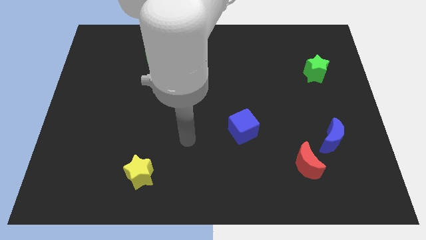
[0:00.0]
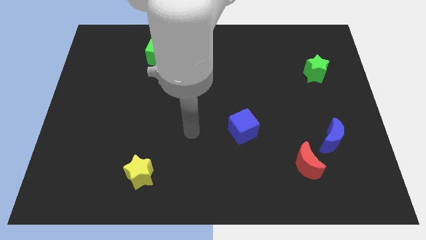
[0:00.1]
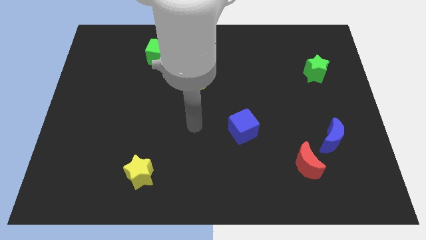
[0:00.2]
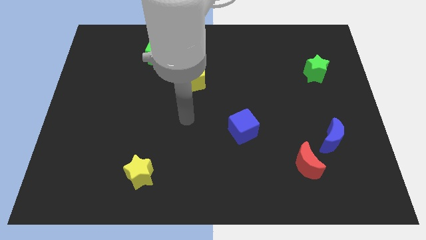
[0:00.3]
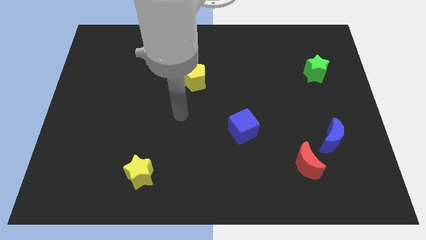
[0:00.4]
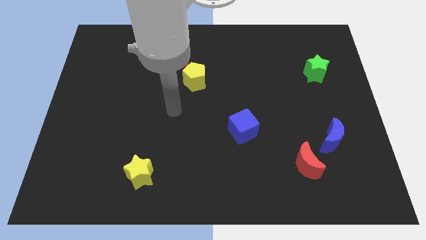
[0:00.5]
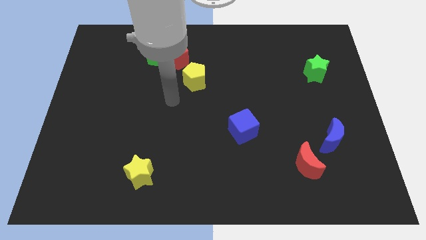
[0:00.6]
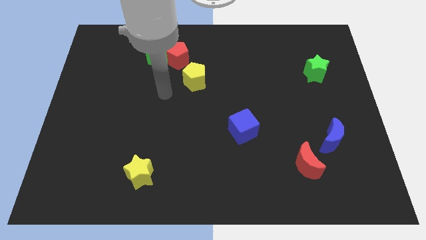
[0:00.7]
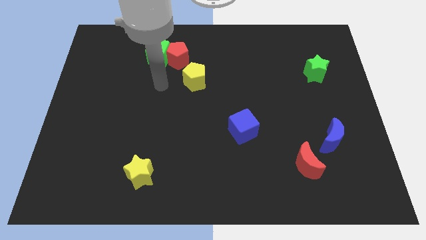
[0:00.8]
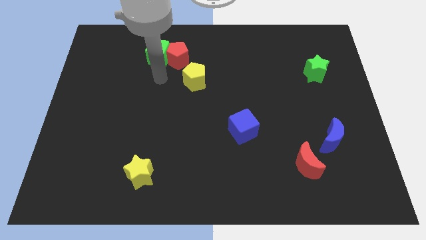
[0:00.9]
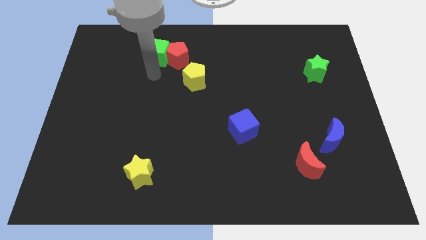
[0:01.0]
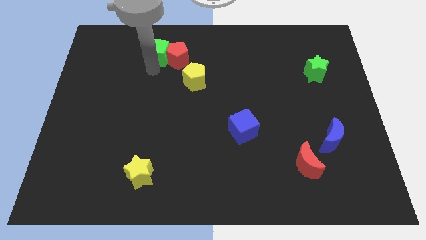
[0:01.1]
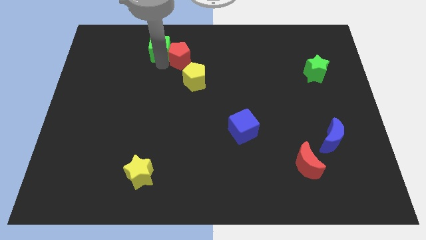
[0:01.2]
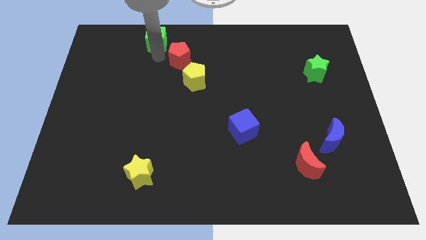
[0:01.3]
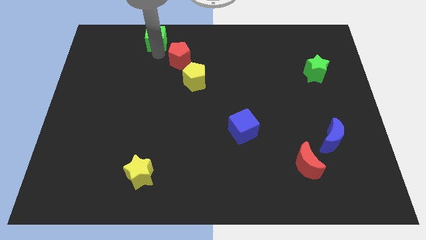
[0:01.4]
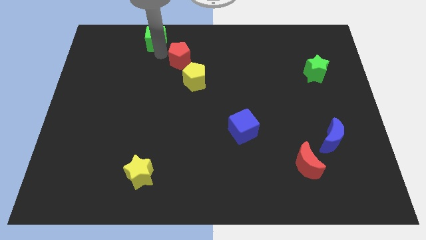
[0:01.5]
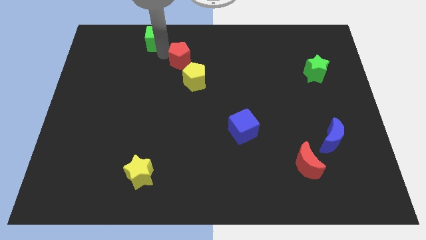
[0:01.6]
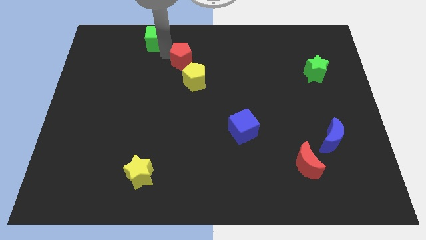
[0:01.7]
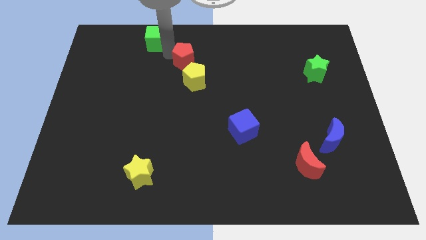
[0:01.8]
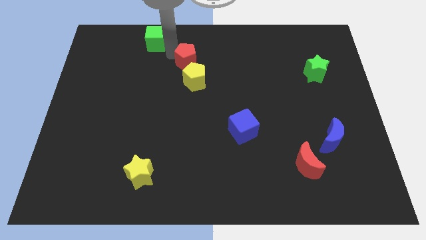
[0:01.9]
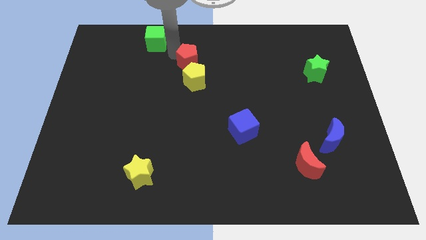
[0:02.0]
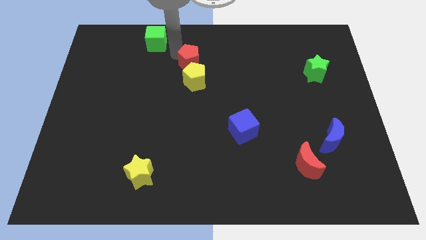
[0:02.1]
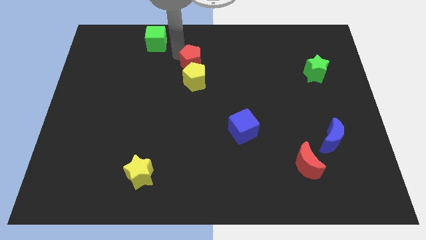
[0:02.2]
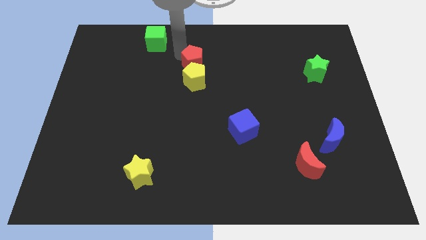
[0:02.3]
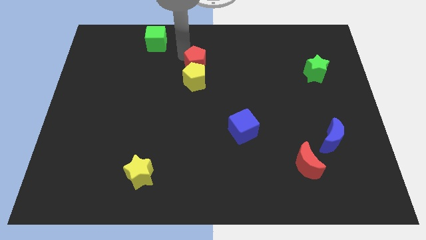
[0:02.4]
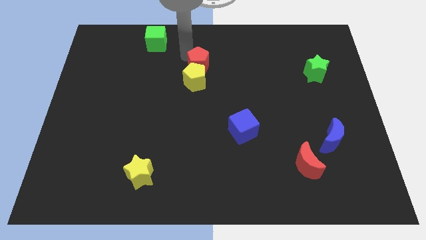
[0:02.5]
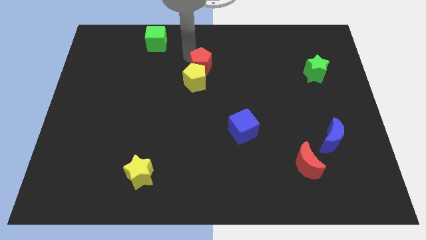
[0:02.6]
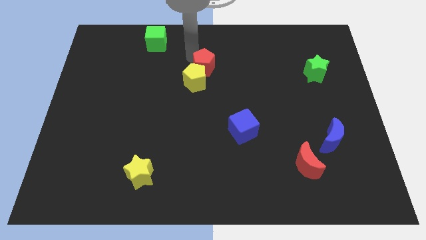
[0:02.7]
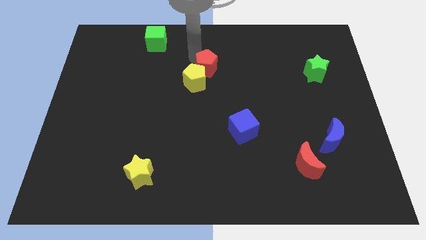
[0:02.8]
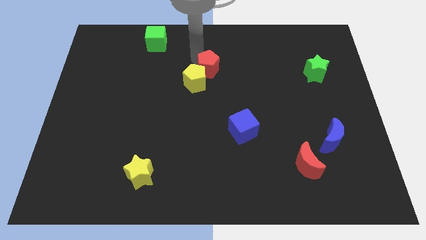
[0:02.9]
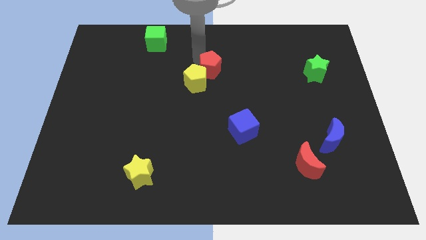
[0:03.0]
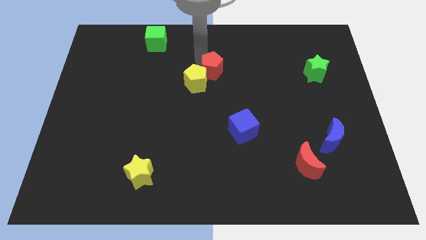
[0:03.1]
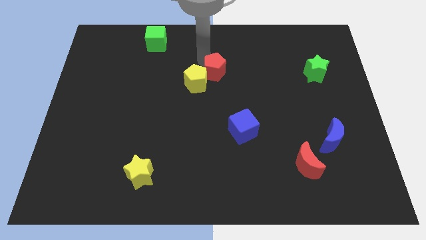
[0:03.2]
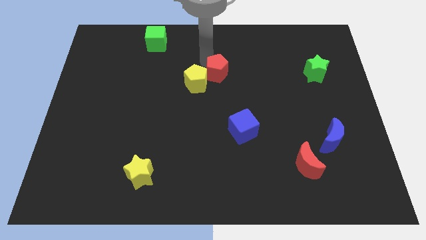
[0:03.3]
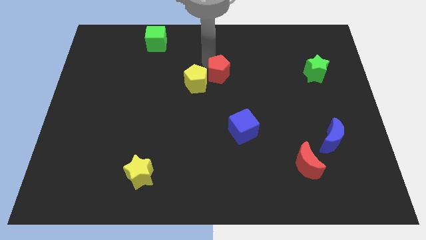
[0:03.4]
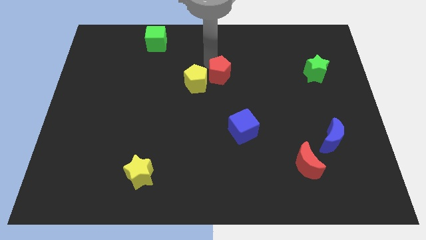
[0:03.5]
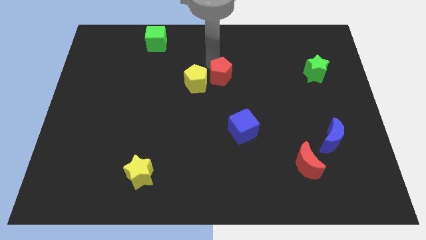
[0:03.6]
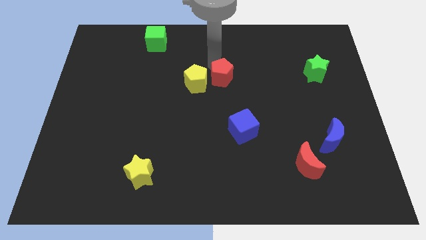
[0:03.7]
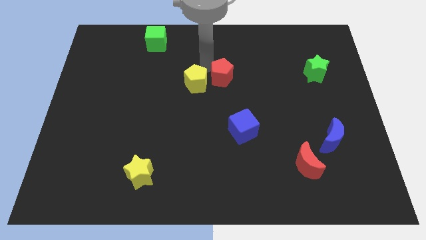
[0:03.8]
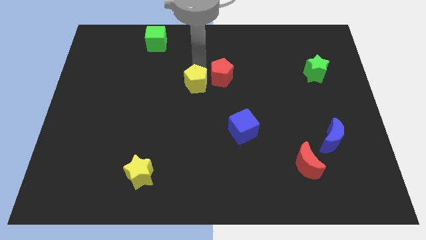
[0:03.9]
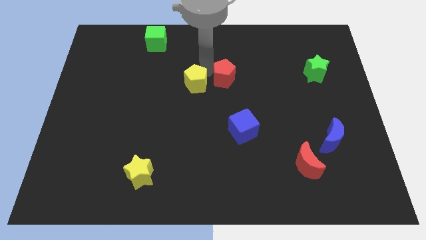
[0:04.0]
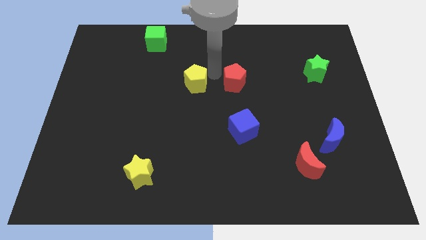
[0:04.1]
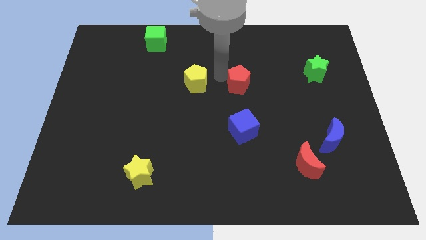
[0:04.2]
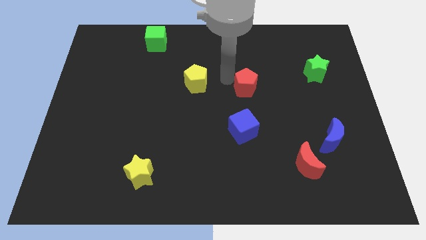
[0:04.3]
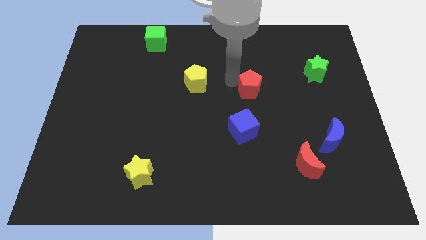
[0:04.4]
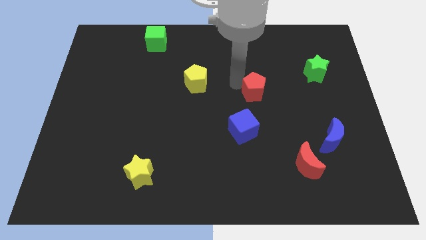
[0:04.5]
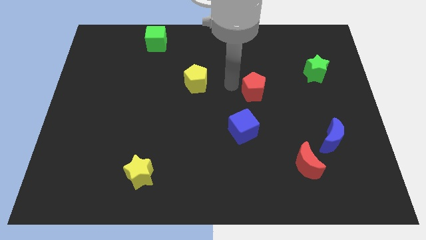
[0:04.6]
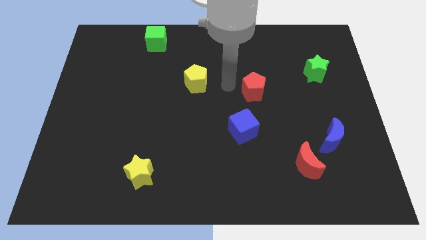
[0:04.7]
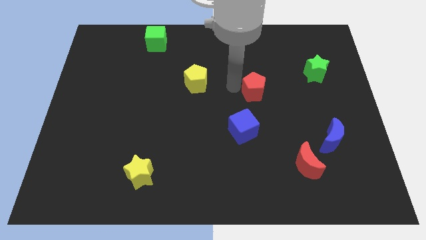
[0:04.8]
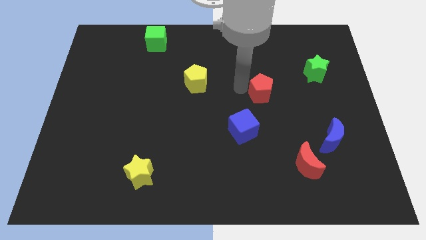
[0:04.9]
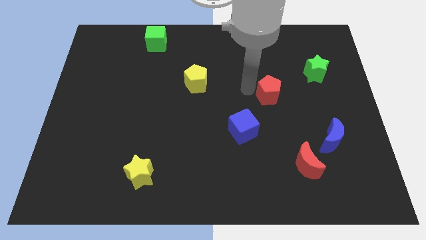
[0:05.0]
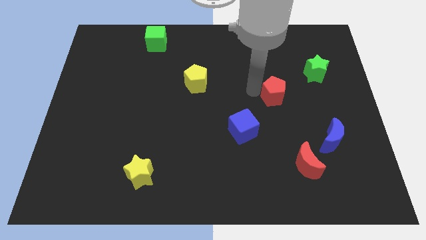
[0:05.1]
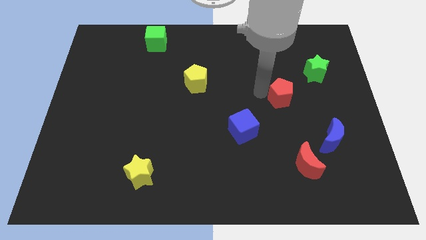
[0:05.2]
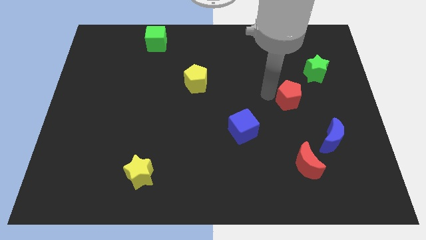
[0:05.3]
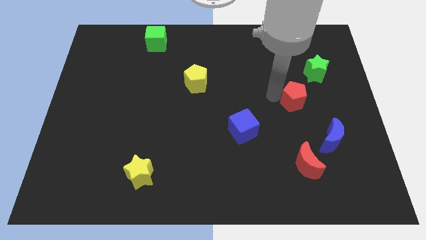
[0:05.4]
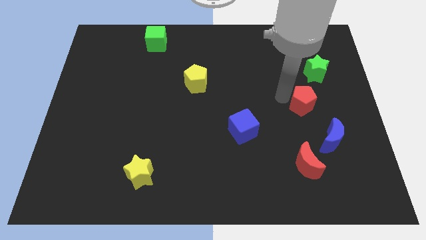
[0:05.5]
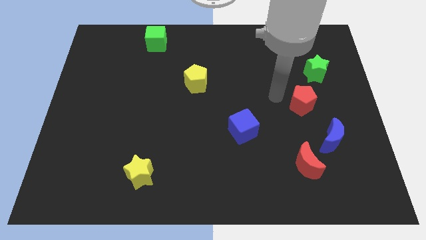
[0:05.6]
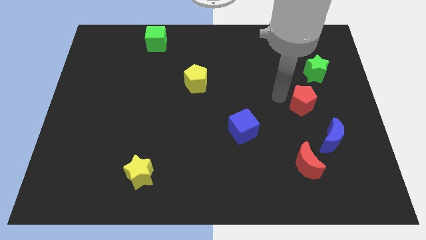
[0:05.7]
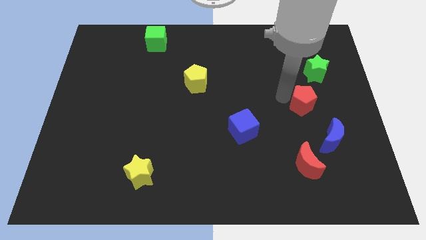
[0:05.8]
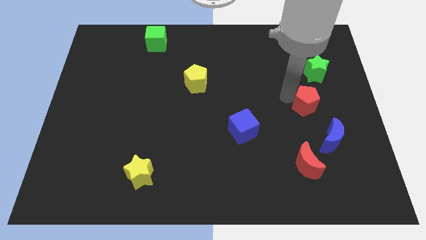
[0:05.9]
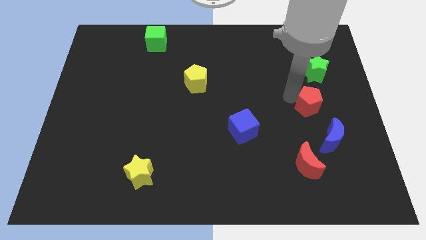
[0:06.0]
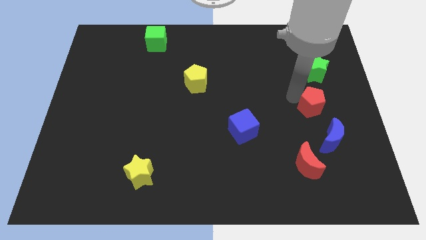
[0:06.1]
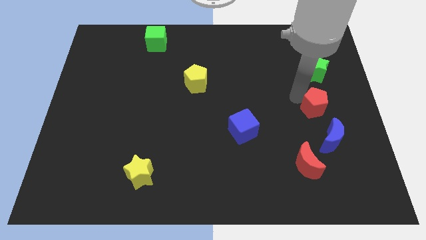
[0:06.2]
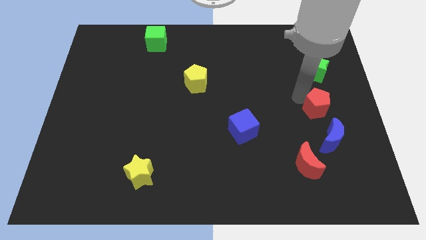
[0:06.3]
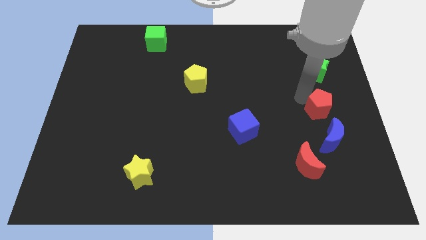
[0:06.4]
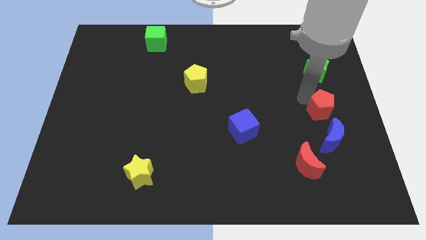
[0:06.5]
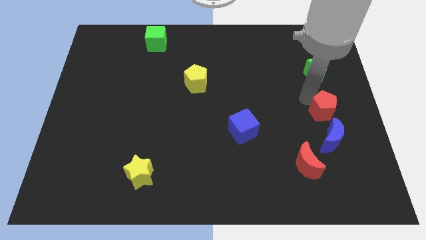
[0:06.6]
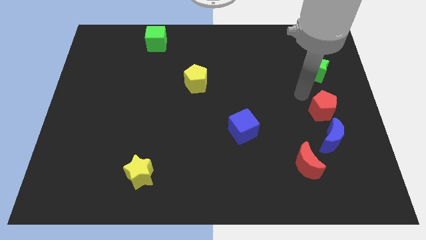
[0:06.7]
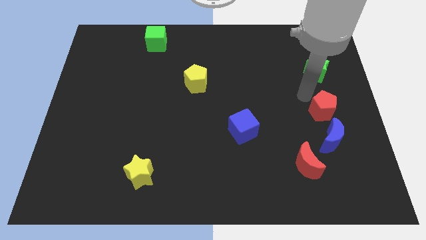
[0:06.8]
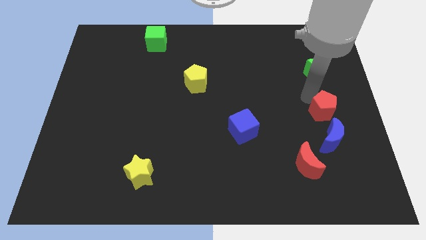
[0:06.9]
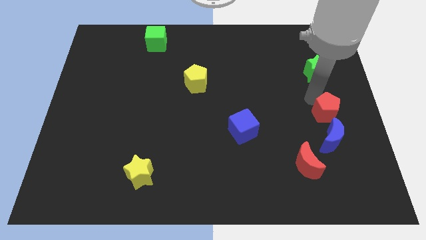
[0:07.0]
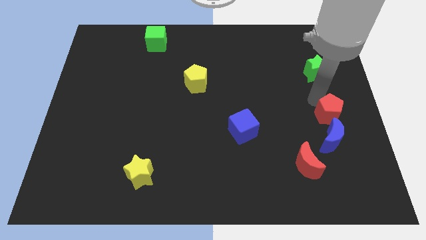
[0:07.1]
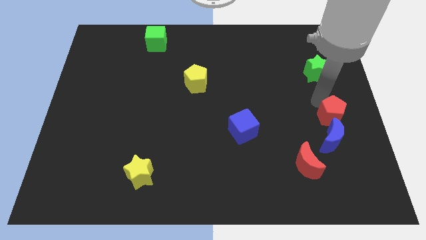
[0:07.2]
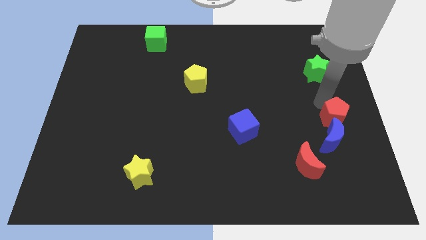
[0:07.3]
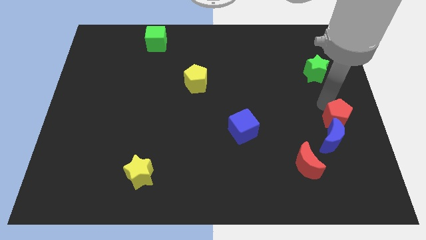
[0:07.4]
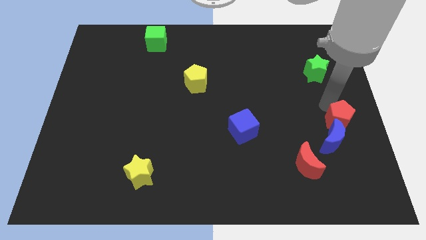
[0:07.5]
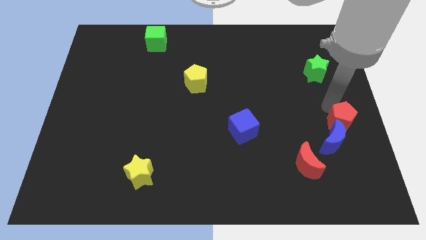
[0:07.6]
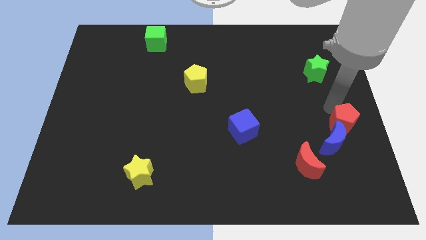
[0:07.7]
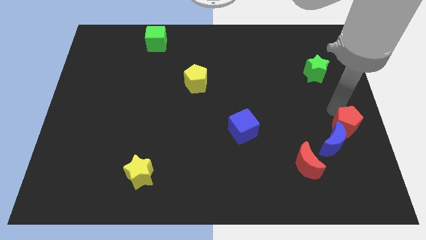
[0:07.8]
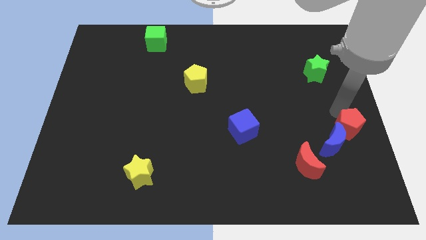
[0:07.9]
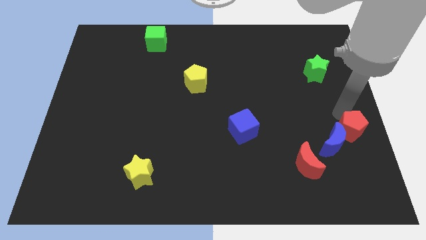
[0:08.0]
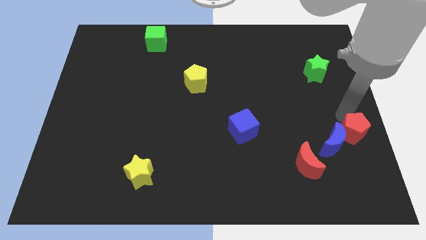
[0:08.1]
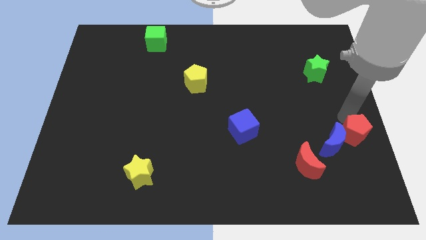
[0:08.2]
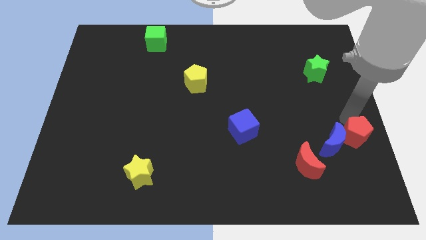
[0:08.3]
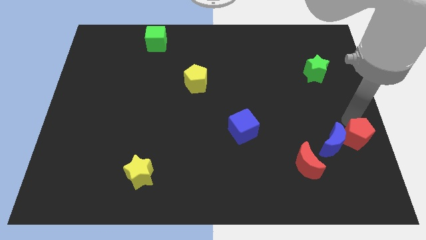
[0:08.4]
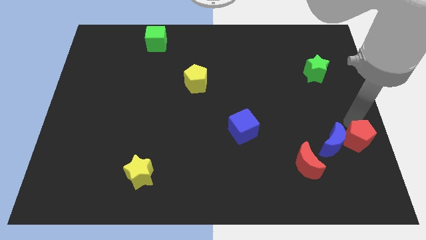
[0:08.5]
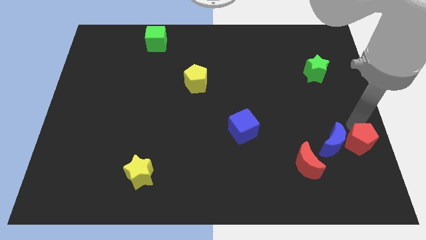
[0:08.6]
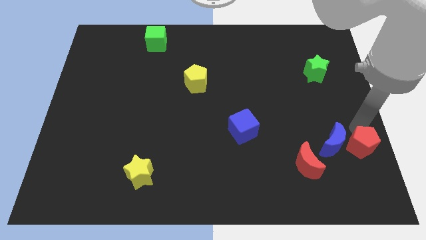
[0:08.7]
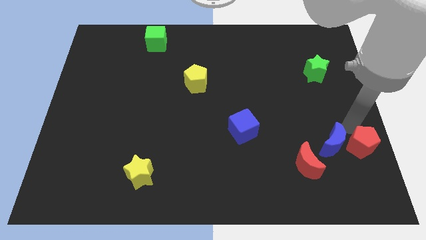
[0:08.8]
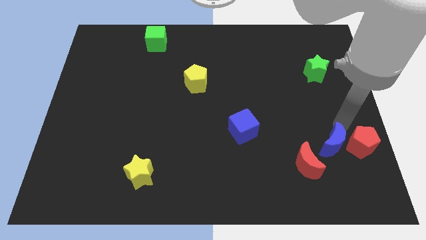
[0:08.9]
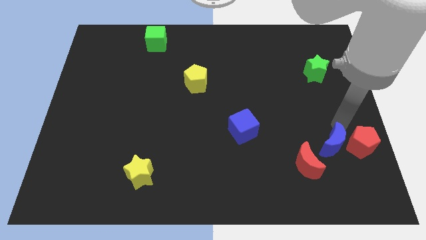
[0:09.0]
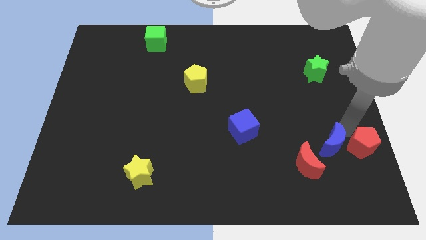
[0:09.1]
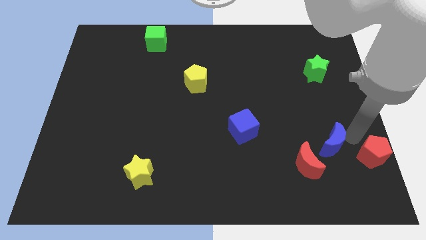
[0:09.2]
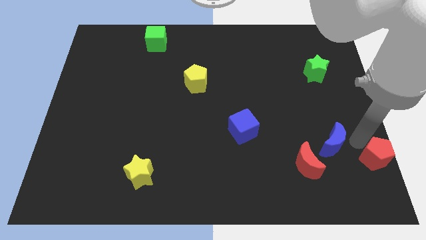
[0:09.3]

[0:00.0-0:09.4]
push the red pentagon to the bottom right corner
